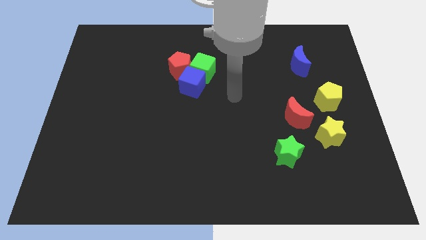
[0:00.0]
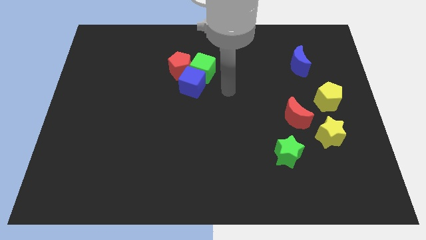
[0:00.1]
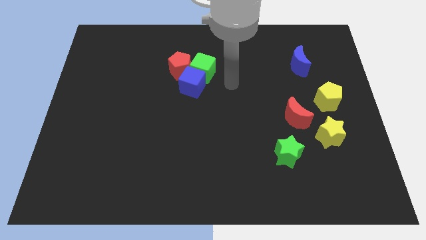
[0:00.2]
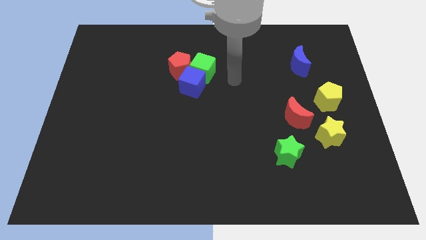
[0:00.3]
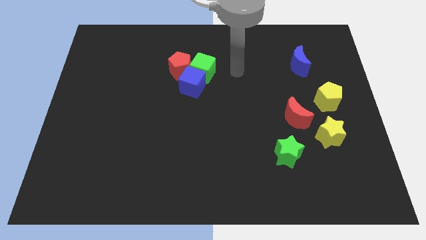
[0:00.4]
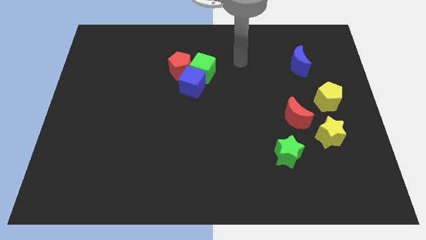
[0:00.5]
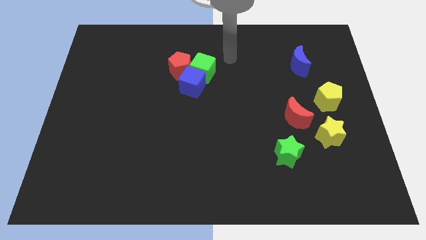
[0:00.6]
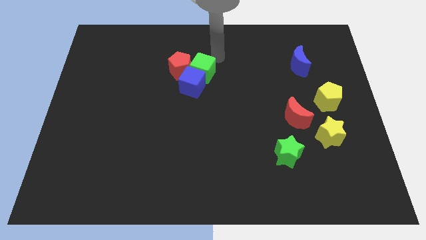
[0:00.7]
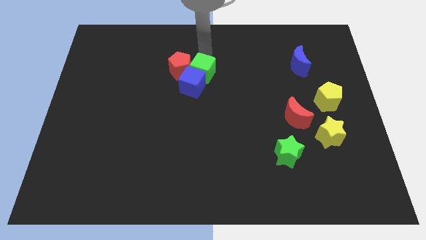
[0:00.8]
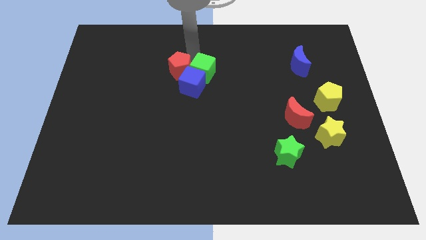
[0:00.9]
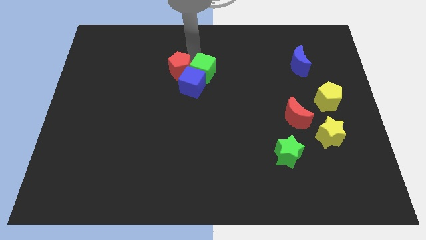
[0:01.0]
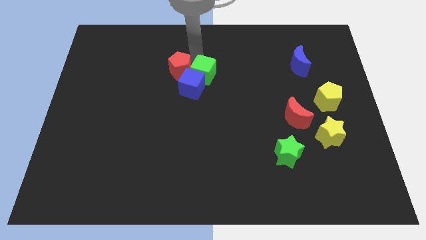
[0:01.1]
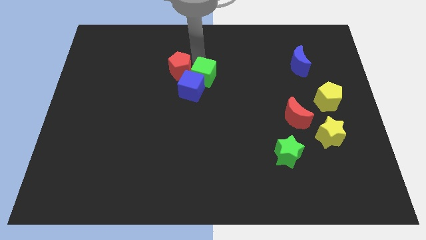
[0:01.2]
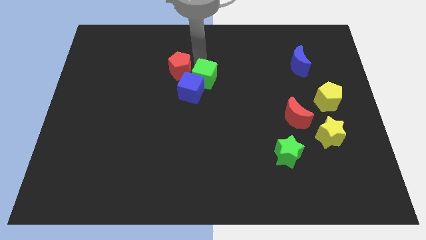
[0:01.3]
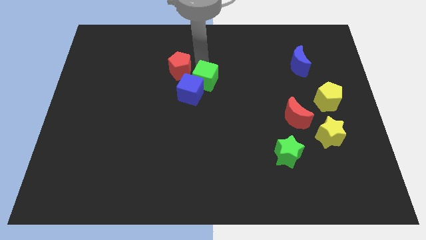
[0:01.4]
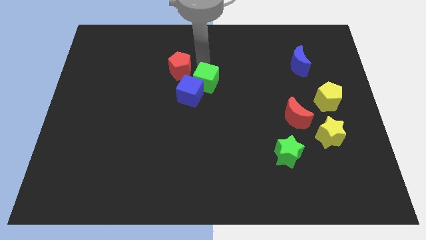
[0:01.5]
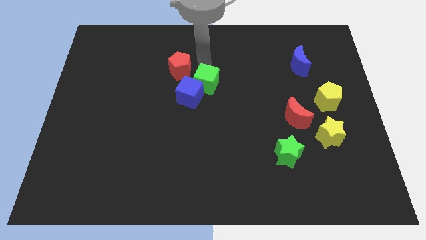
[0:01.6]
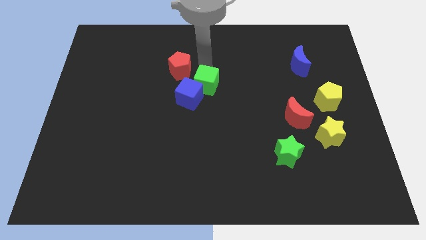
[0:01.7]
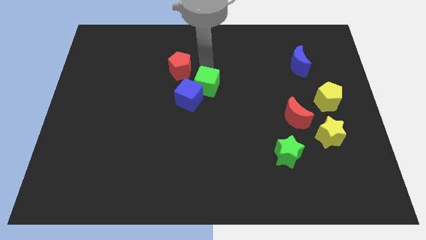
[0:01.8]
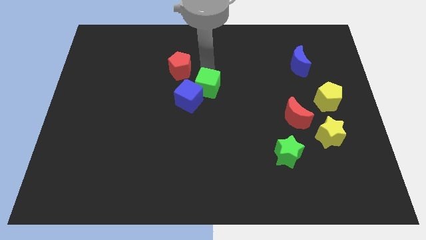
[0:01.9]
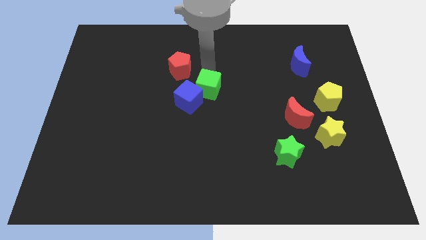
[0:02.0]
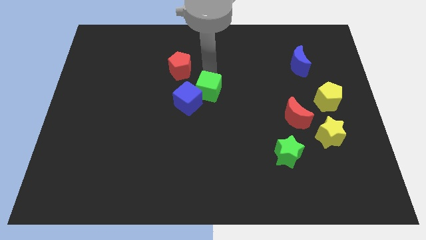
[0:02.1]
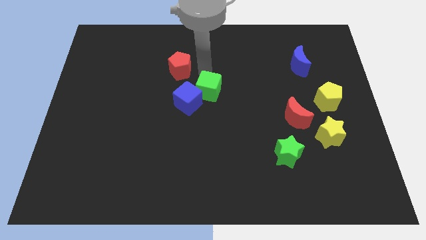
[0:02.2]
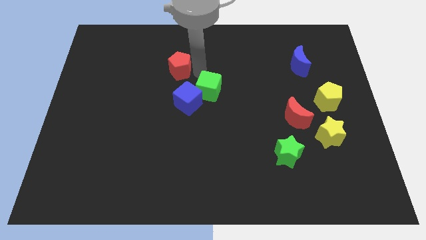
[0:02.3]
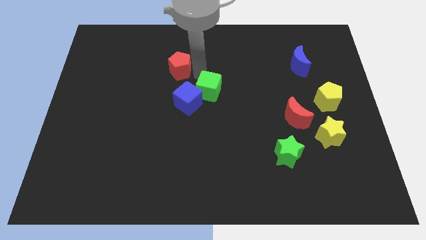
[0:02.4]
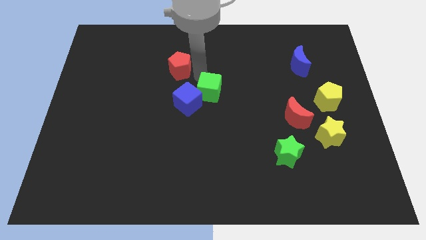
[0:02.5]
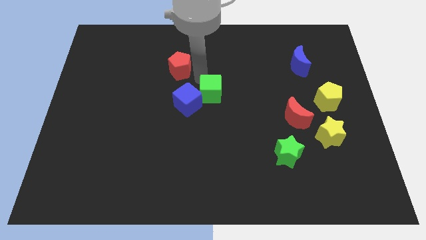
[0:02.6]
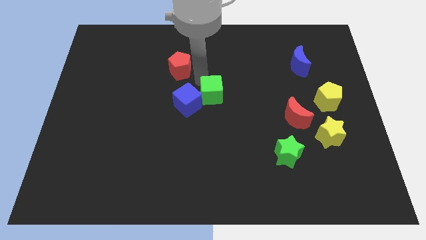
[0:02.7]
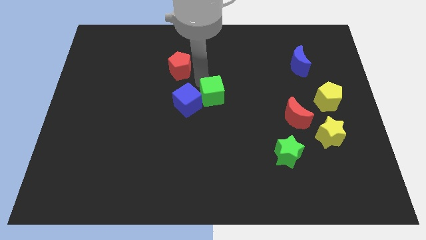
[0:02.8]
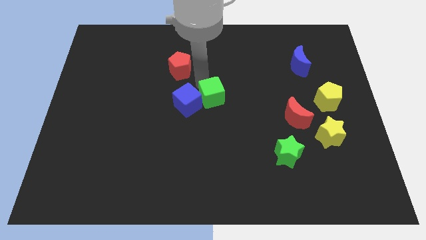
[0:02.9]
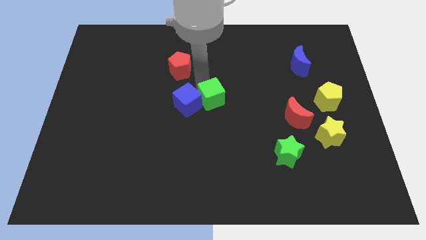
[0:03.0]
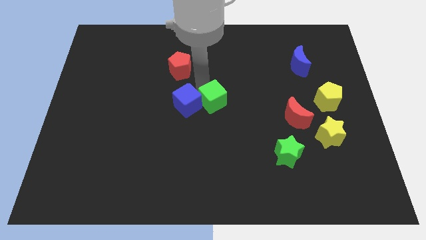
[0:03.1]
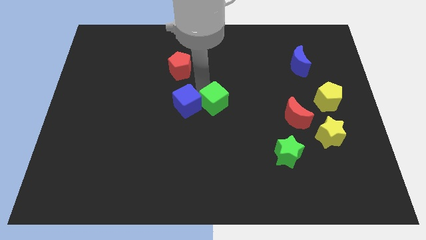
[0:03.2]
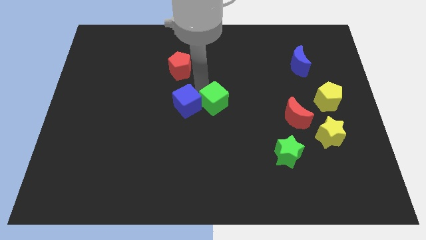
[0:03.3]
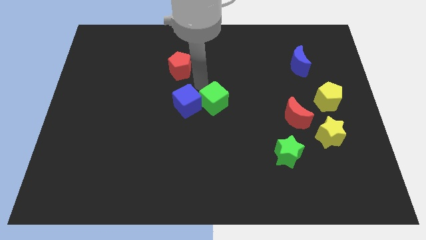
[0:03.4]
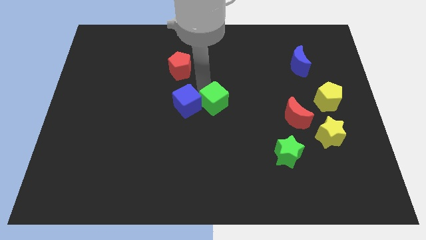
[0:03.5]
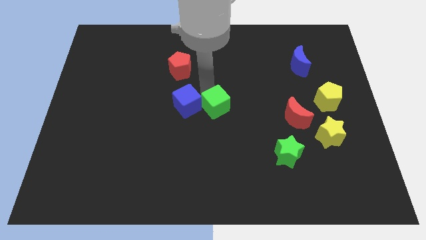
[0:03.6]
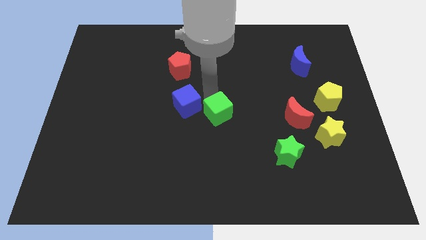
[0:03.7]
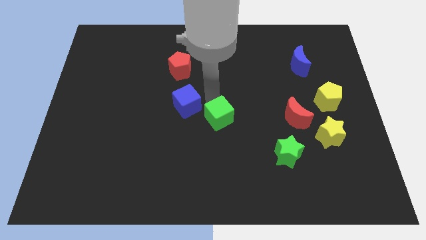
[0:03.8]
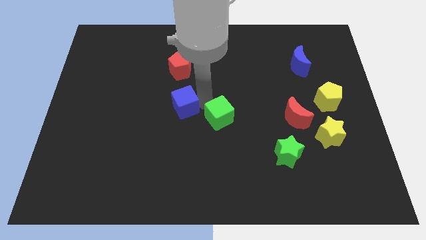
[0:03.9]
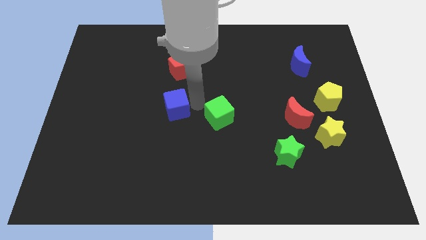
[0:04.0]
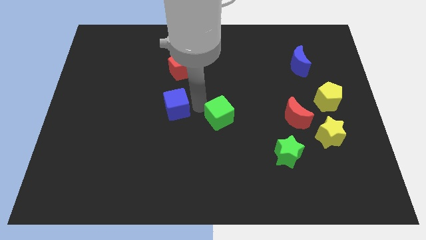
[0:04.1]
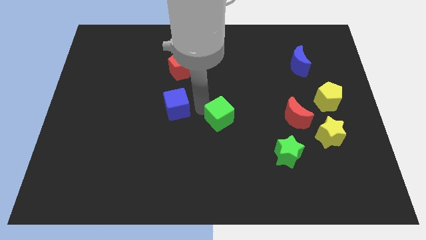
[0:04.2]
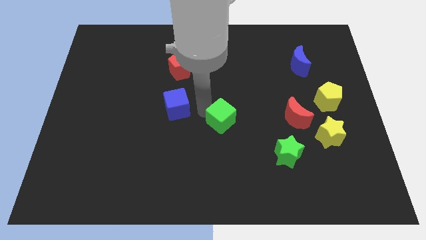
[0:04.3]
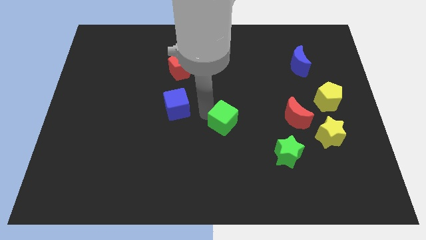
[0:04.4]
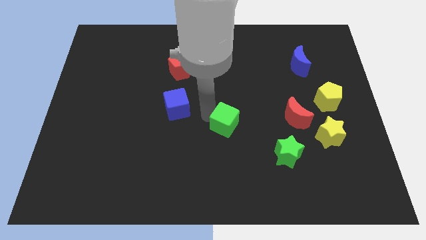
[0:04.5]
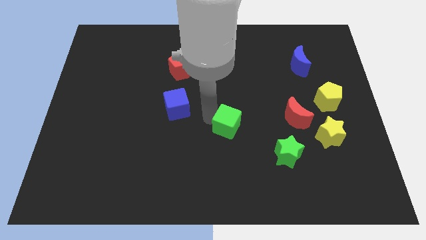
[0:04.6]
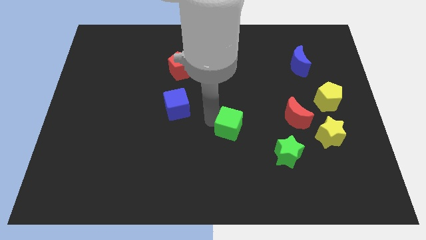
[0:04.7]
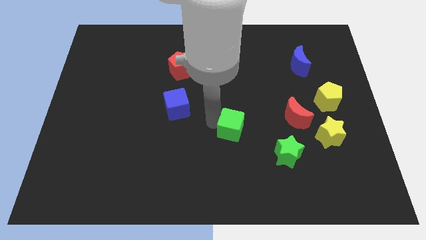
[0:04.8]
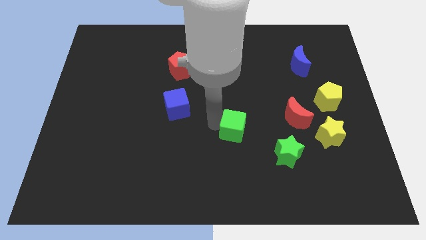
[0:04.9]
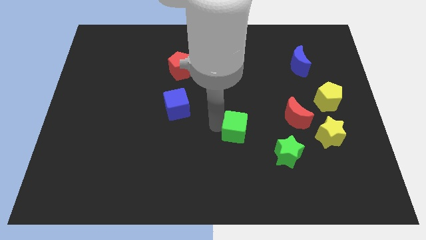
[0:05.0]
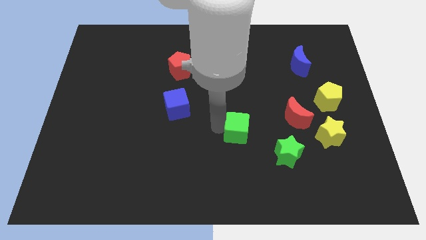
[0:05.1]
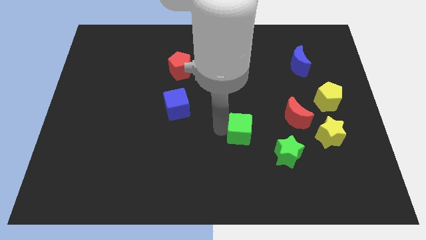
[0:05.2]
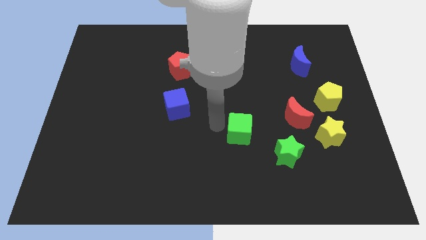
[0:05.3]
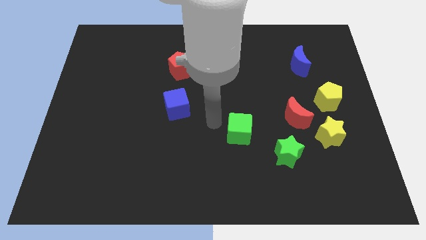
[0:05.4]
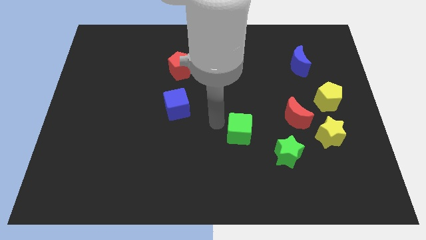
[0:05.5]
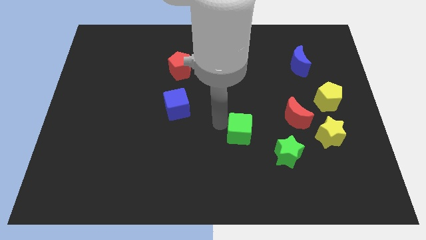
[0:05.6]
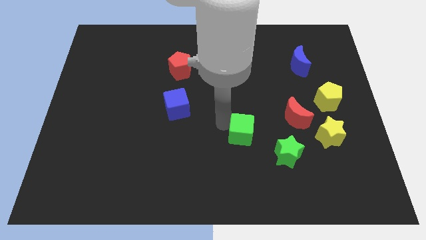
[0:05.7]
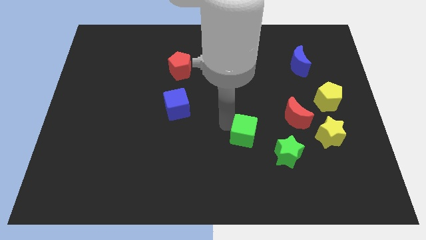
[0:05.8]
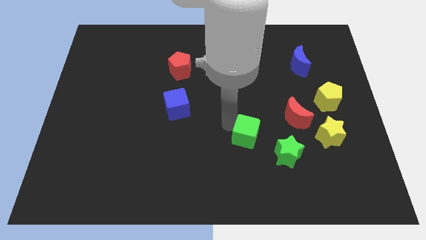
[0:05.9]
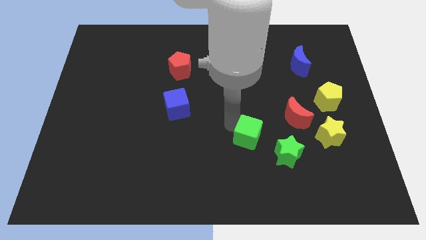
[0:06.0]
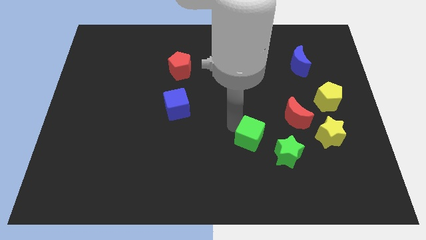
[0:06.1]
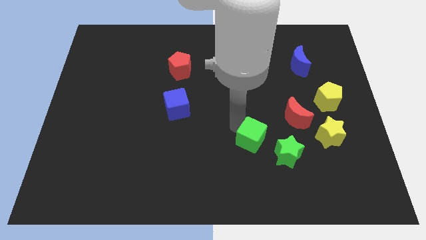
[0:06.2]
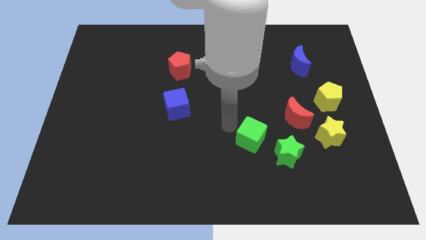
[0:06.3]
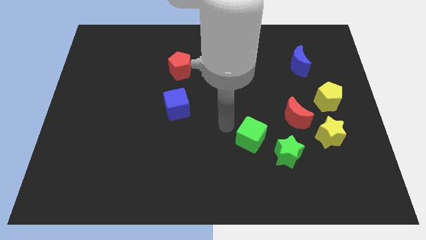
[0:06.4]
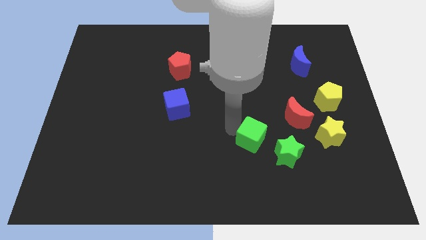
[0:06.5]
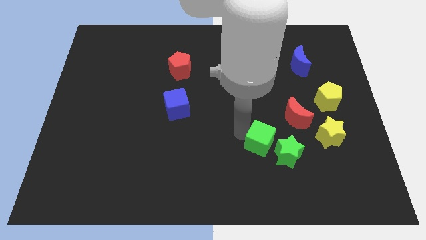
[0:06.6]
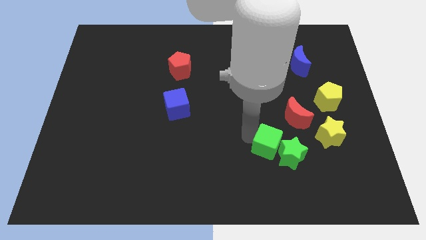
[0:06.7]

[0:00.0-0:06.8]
put the green cube next to the green star

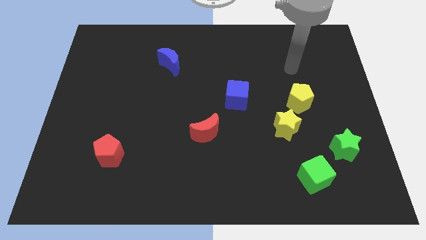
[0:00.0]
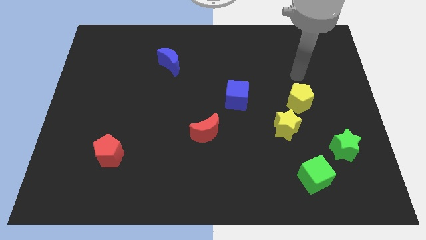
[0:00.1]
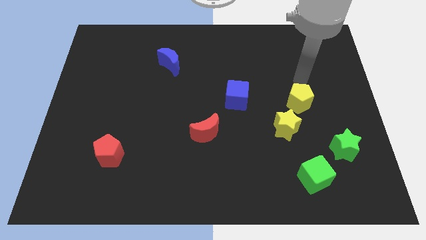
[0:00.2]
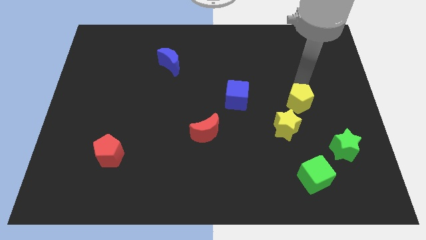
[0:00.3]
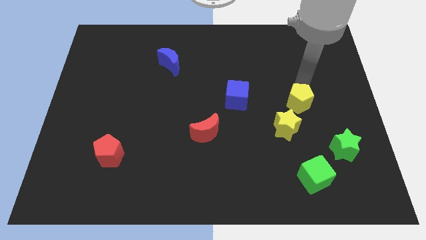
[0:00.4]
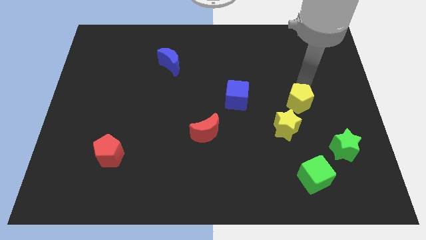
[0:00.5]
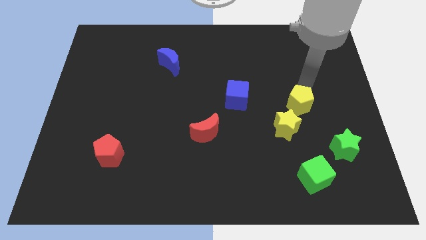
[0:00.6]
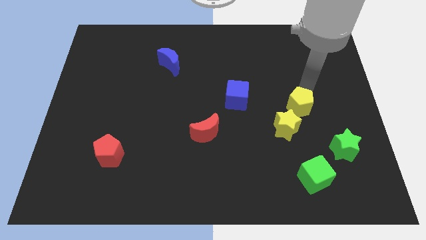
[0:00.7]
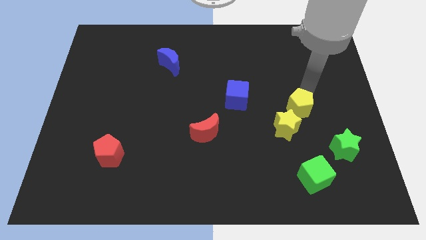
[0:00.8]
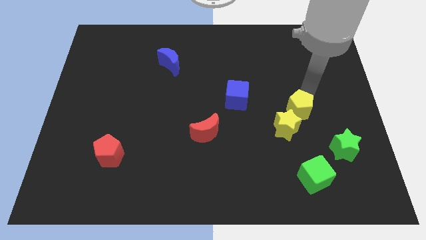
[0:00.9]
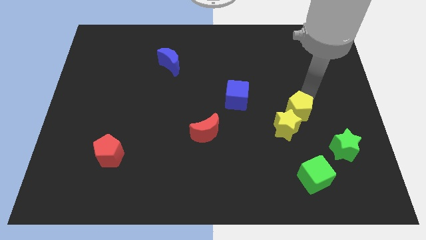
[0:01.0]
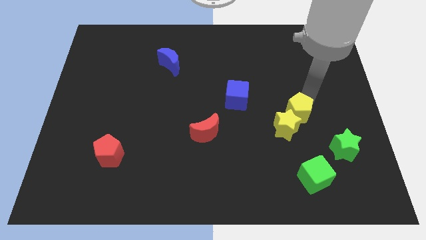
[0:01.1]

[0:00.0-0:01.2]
push the yellow pentagon to the yellow star
